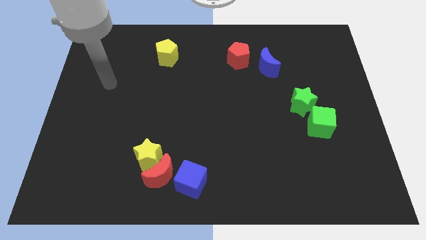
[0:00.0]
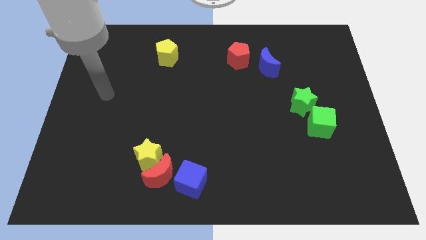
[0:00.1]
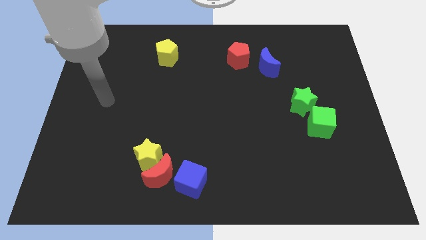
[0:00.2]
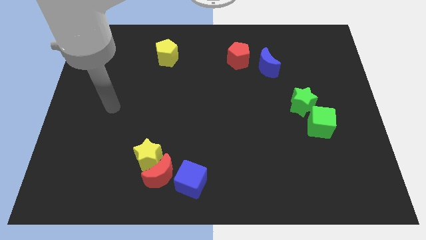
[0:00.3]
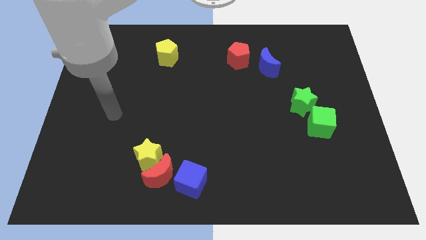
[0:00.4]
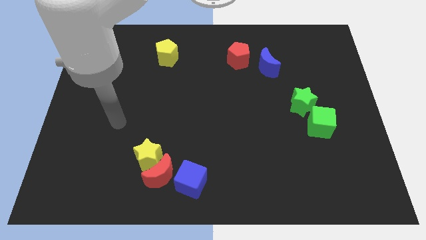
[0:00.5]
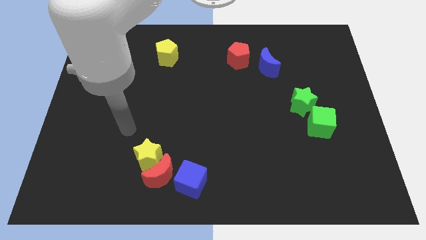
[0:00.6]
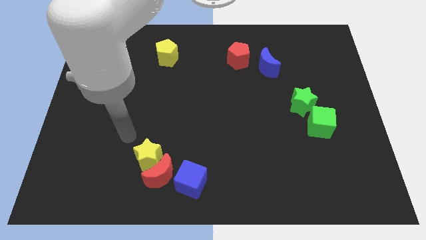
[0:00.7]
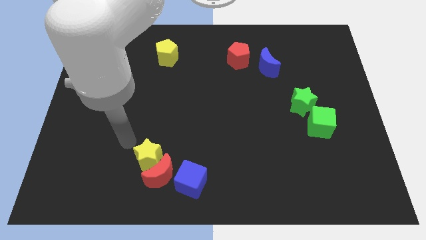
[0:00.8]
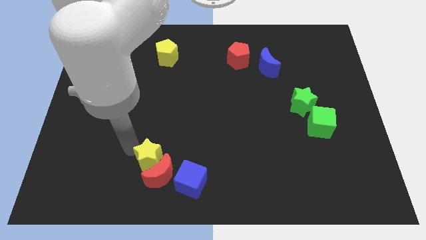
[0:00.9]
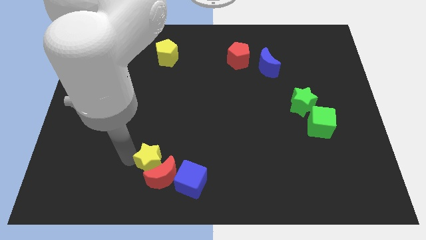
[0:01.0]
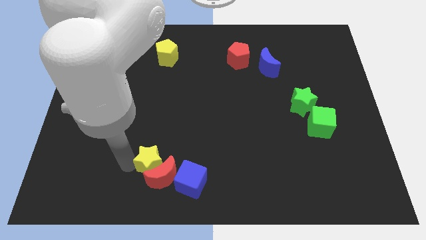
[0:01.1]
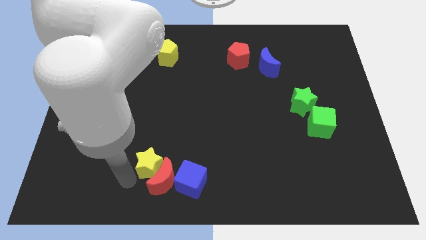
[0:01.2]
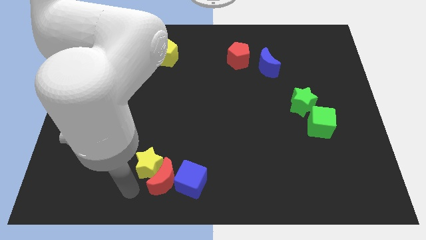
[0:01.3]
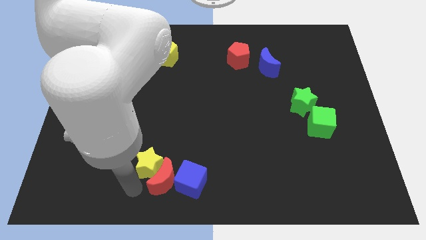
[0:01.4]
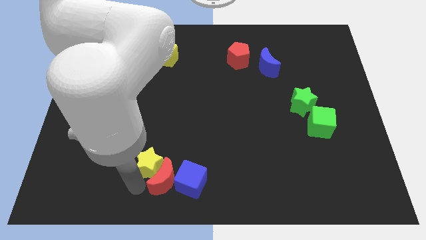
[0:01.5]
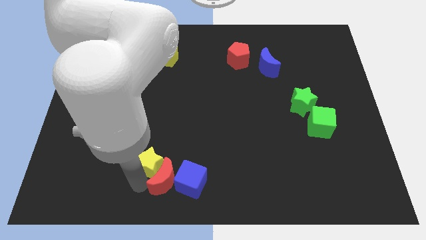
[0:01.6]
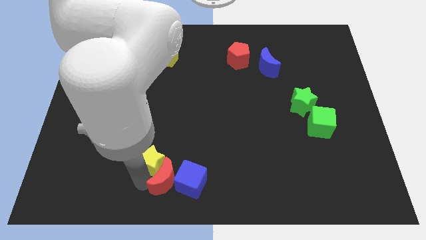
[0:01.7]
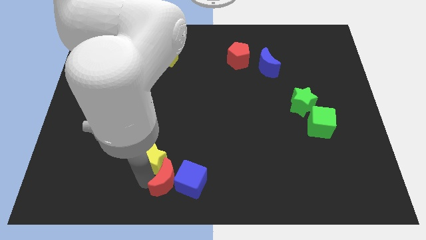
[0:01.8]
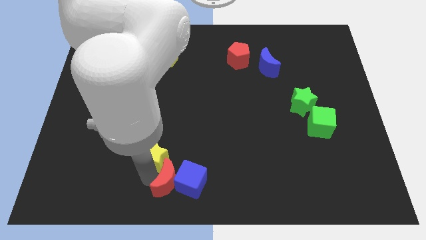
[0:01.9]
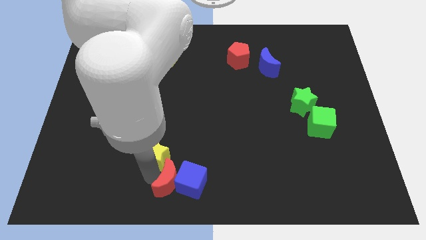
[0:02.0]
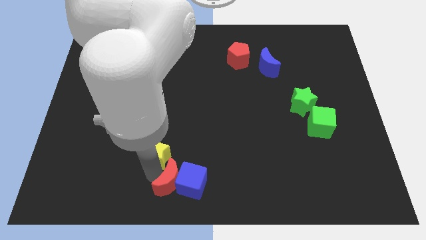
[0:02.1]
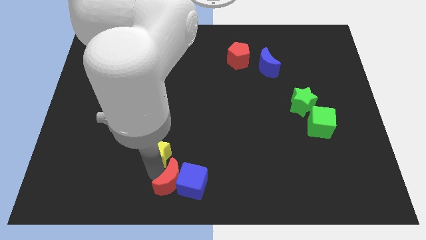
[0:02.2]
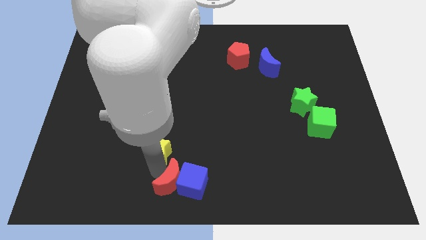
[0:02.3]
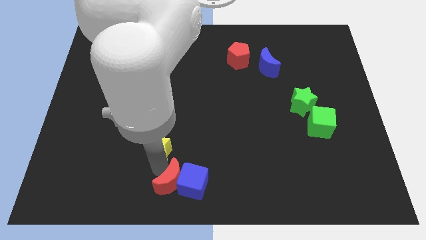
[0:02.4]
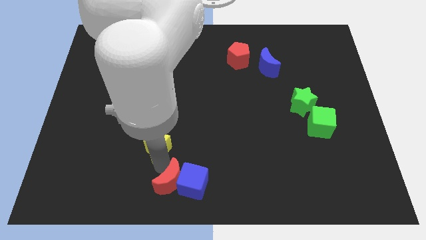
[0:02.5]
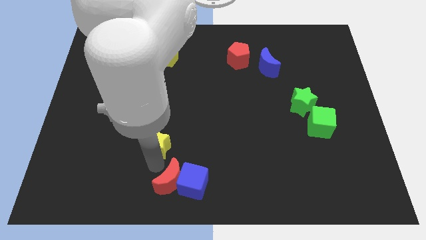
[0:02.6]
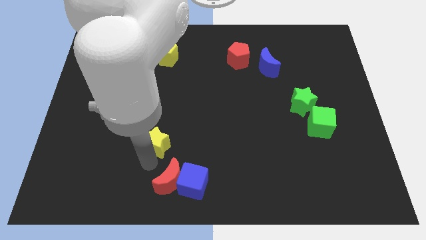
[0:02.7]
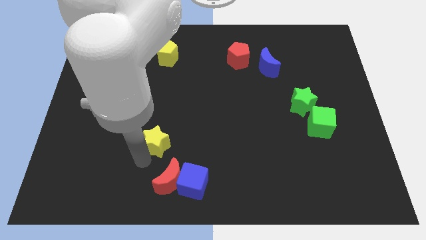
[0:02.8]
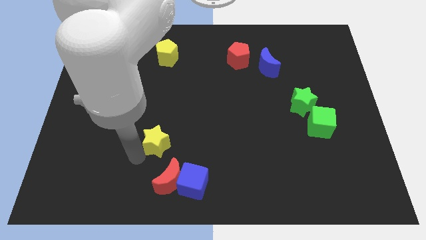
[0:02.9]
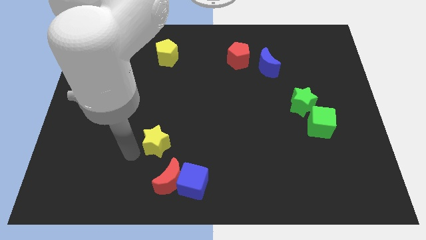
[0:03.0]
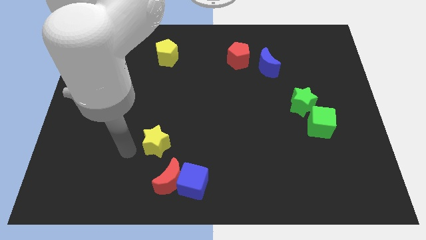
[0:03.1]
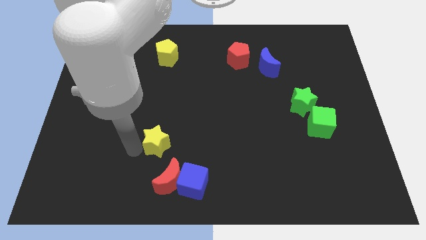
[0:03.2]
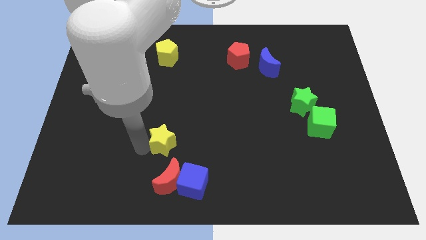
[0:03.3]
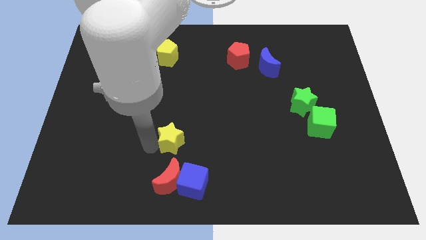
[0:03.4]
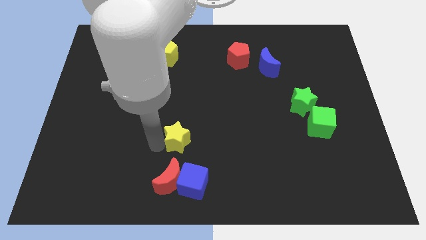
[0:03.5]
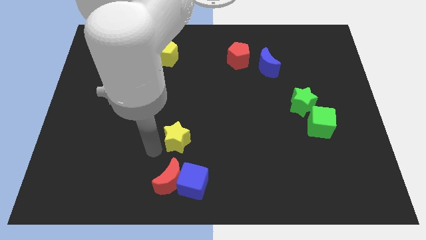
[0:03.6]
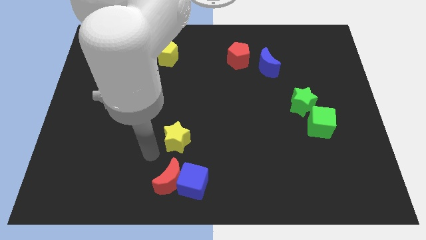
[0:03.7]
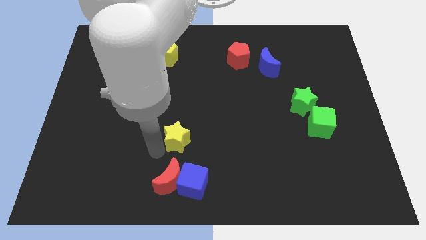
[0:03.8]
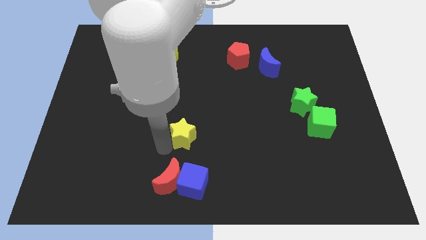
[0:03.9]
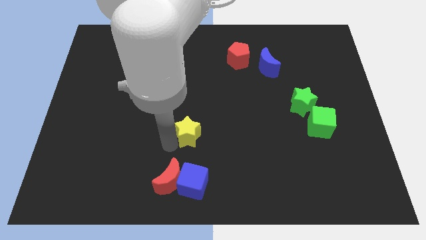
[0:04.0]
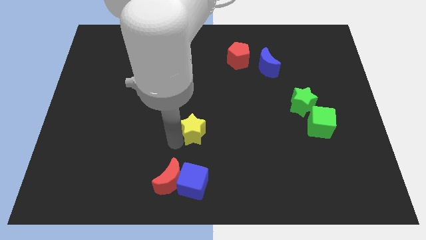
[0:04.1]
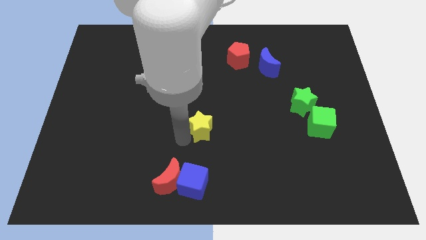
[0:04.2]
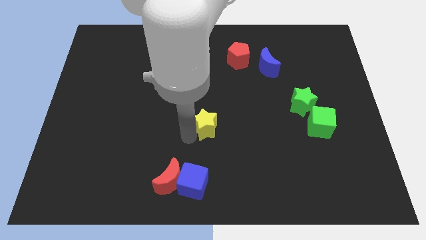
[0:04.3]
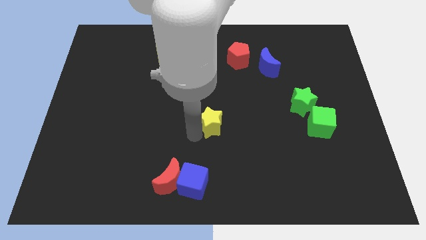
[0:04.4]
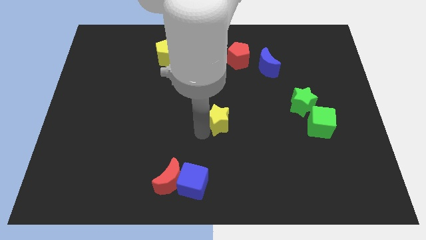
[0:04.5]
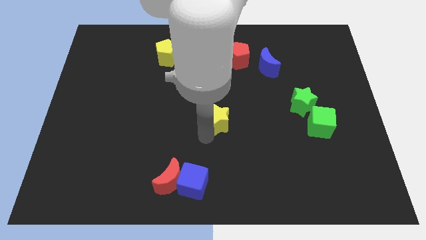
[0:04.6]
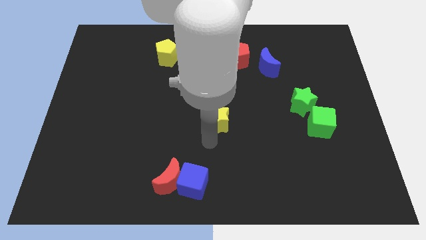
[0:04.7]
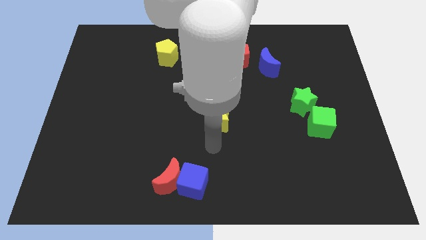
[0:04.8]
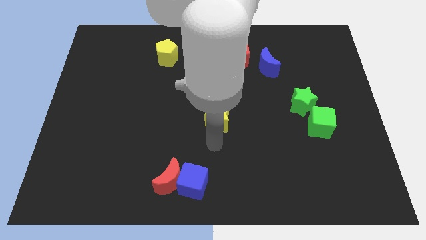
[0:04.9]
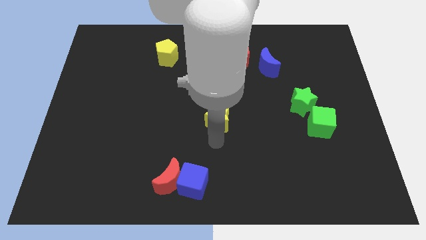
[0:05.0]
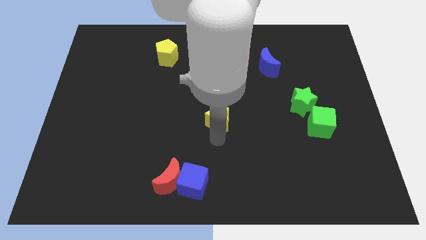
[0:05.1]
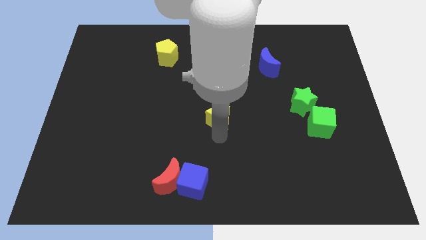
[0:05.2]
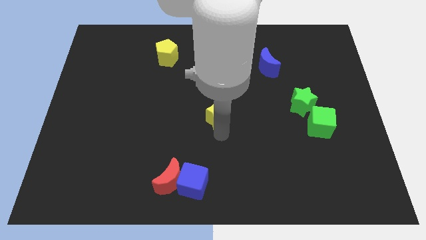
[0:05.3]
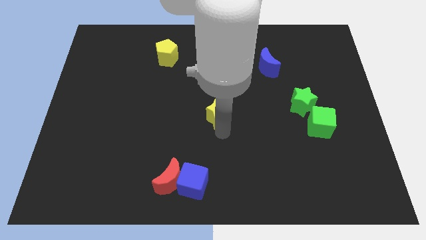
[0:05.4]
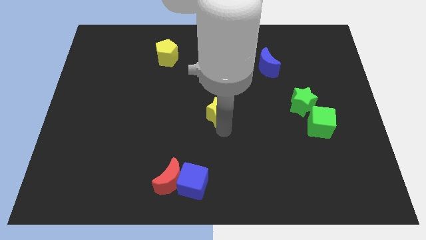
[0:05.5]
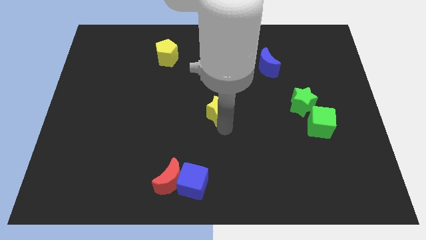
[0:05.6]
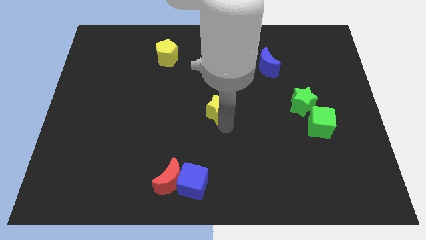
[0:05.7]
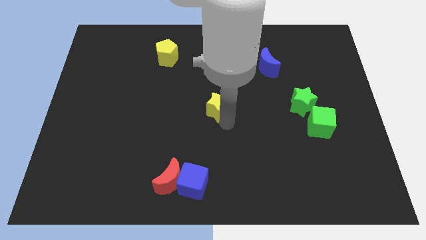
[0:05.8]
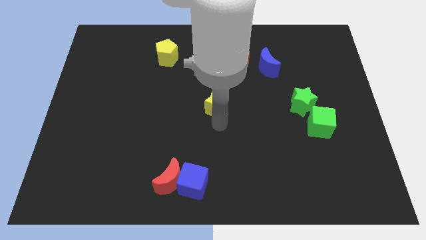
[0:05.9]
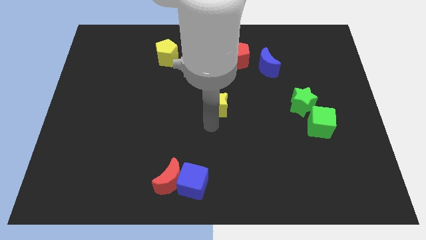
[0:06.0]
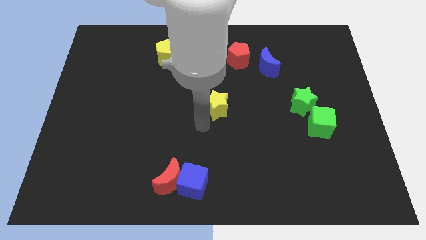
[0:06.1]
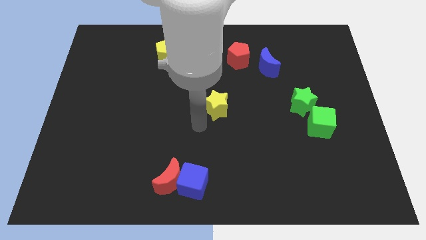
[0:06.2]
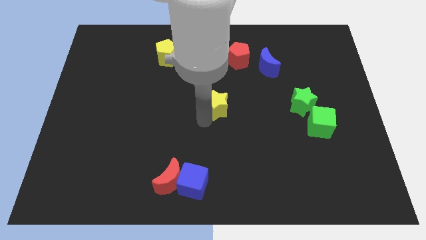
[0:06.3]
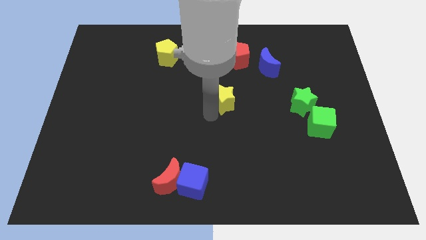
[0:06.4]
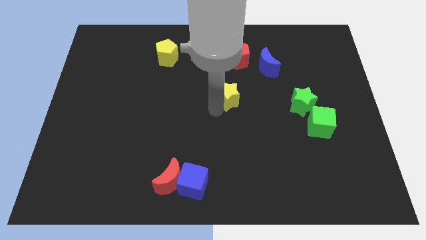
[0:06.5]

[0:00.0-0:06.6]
push the yellow star below the red pentagon

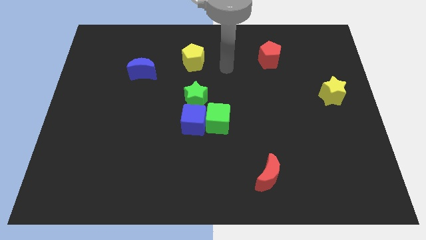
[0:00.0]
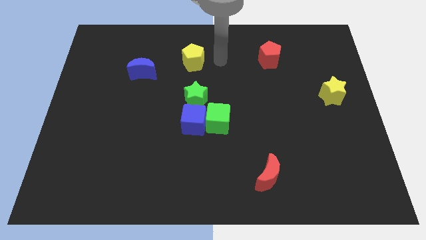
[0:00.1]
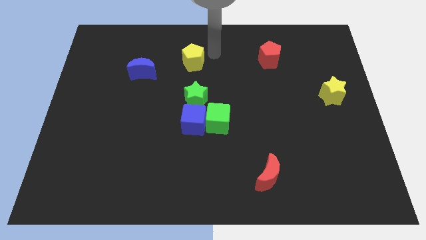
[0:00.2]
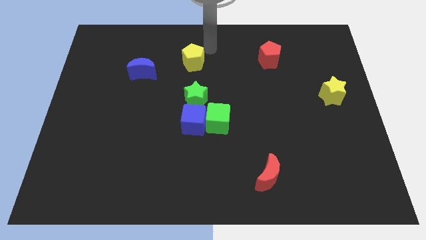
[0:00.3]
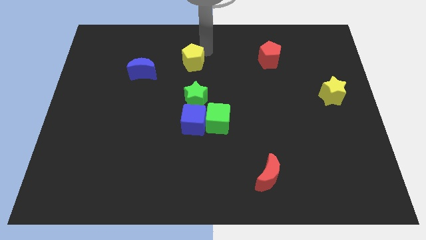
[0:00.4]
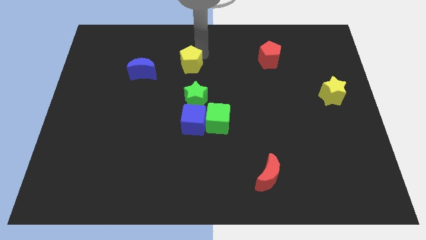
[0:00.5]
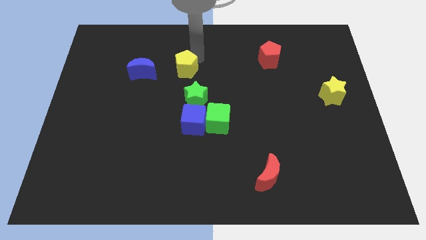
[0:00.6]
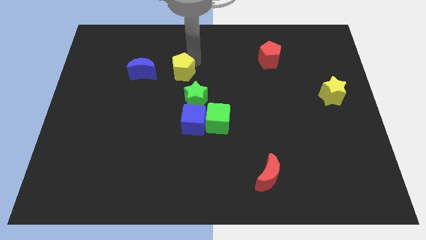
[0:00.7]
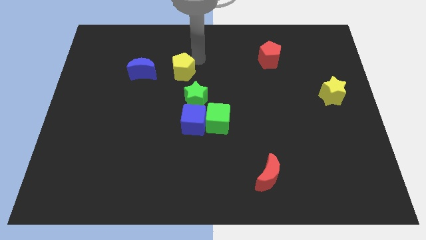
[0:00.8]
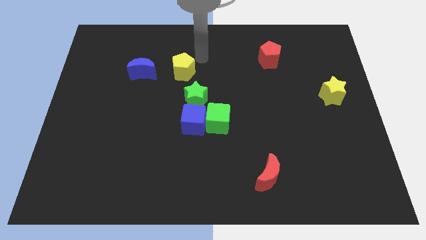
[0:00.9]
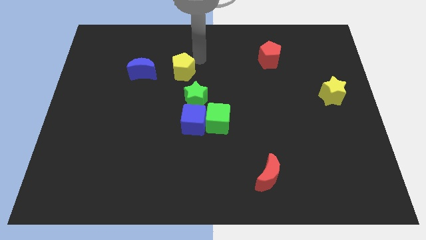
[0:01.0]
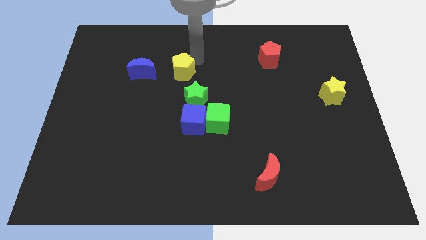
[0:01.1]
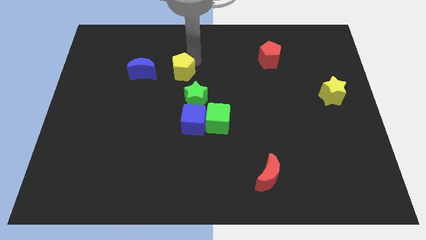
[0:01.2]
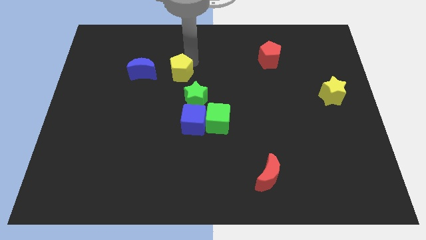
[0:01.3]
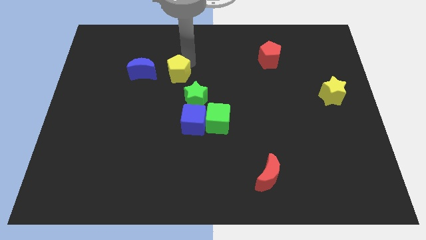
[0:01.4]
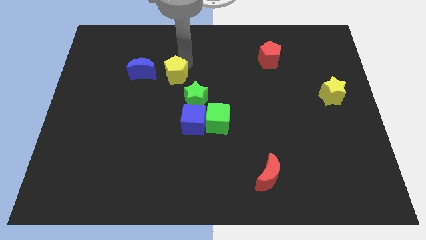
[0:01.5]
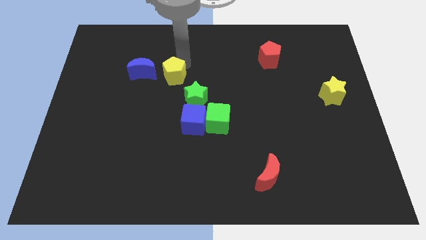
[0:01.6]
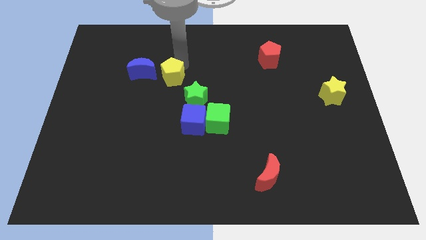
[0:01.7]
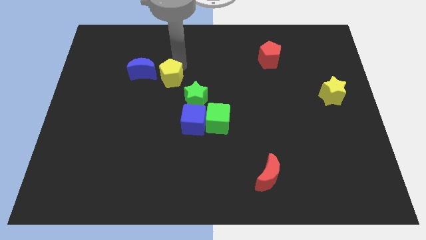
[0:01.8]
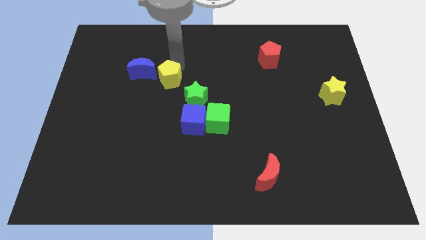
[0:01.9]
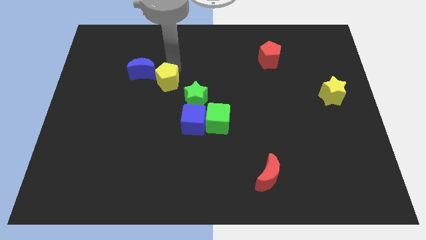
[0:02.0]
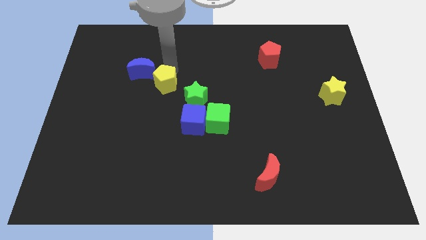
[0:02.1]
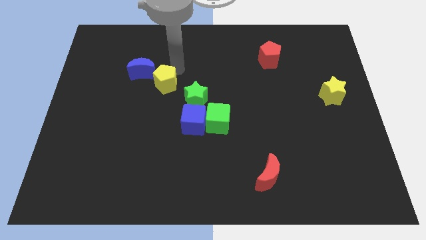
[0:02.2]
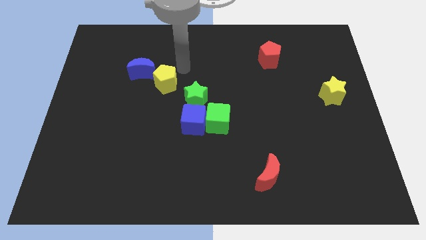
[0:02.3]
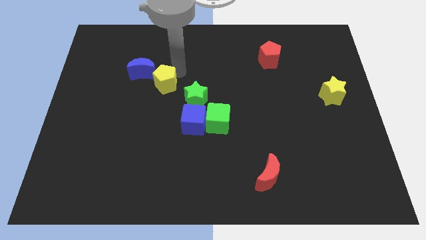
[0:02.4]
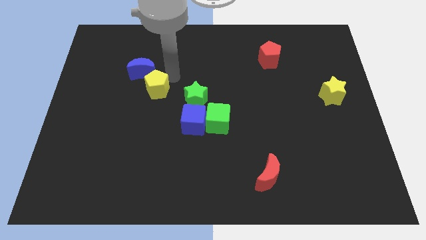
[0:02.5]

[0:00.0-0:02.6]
move the yellow pentagon below the blue moon
